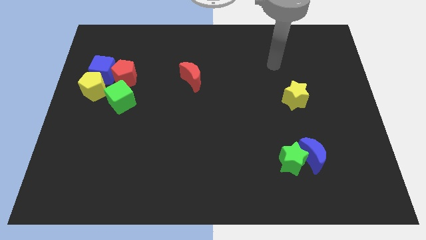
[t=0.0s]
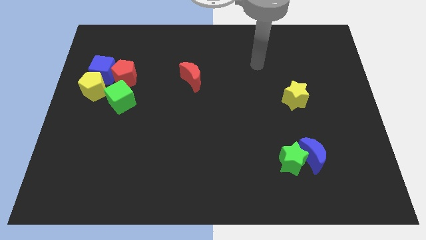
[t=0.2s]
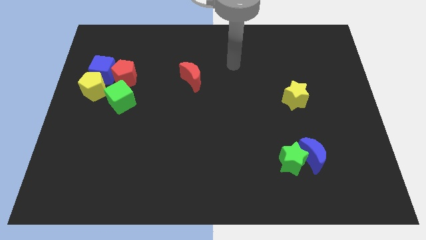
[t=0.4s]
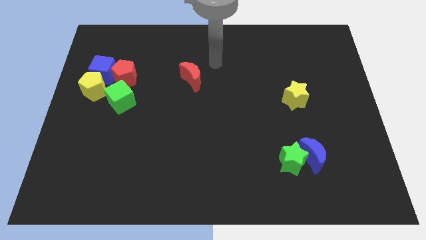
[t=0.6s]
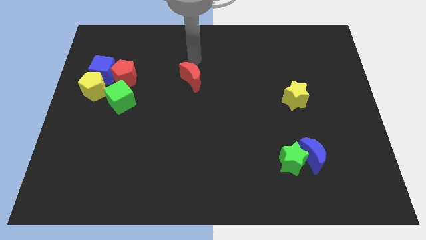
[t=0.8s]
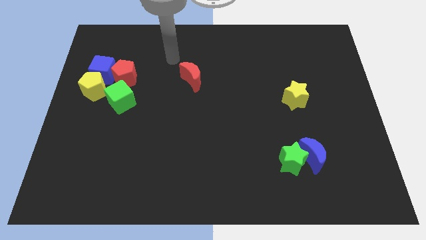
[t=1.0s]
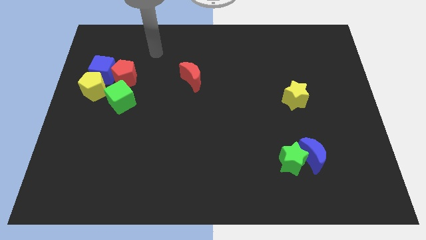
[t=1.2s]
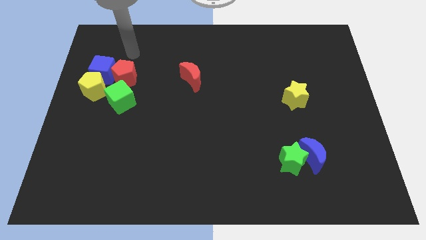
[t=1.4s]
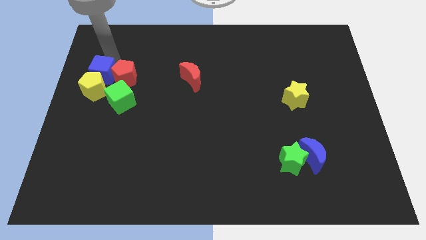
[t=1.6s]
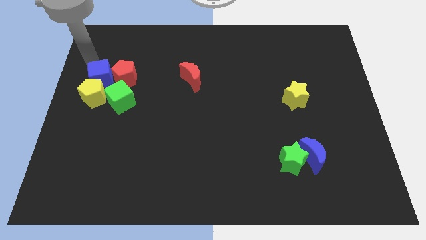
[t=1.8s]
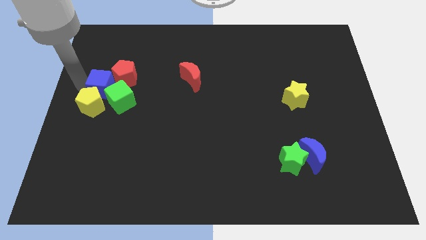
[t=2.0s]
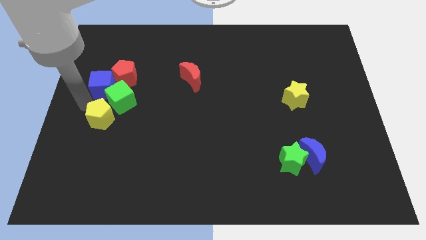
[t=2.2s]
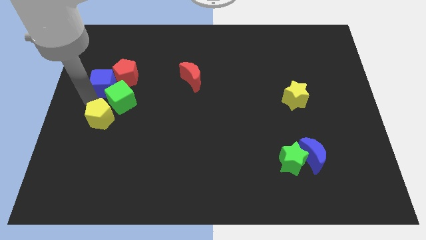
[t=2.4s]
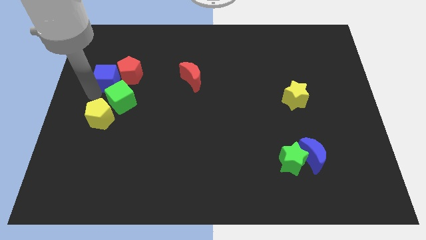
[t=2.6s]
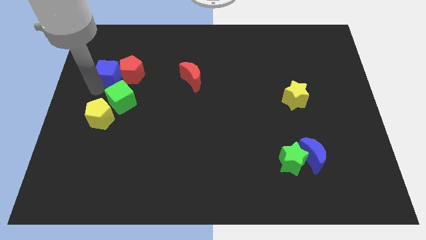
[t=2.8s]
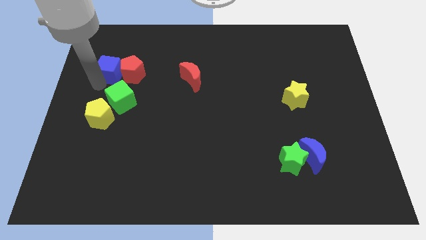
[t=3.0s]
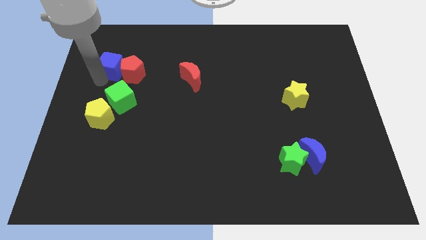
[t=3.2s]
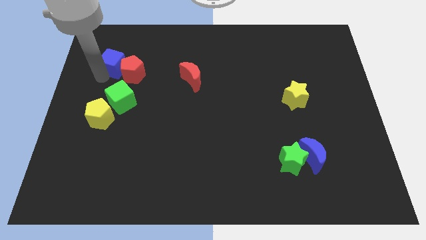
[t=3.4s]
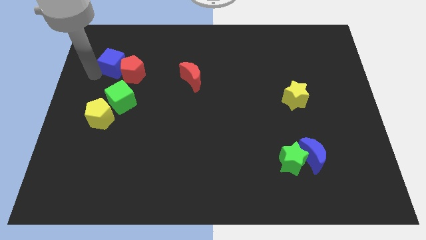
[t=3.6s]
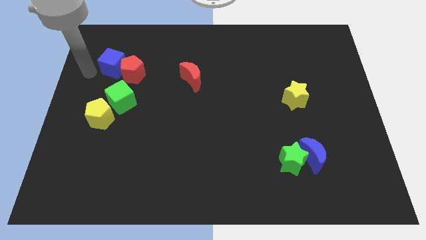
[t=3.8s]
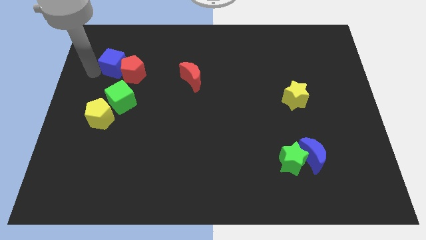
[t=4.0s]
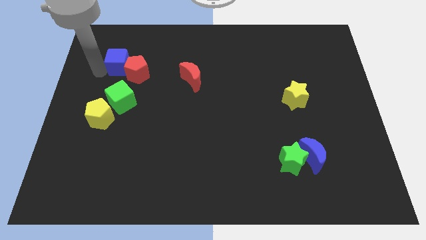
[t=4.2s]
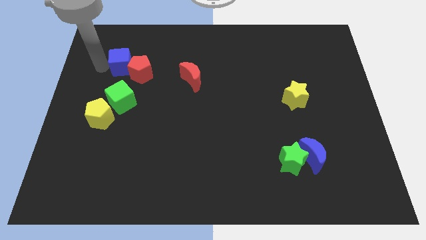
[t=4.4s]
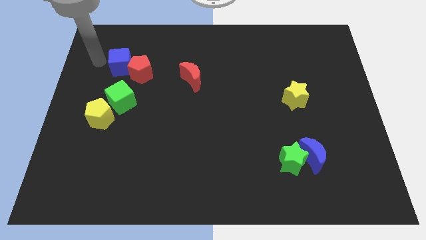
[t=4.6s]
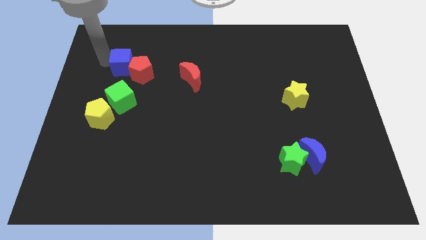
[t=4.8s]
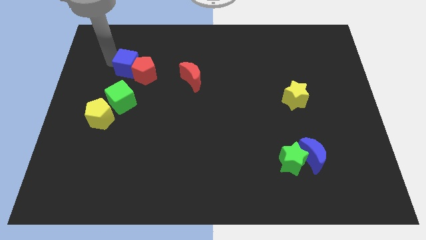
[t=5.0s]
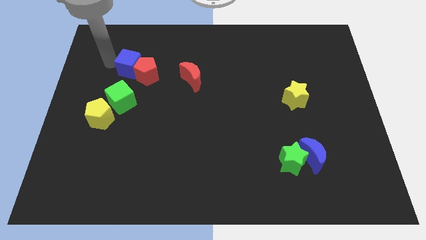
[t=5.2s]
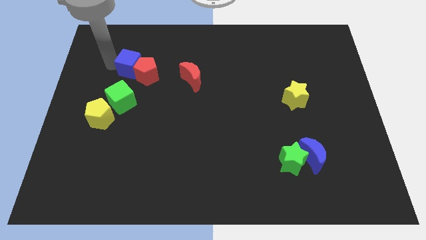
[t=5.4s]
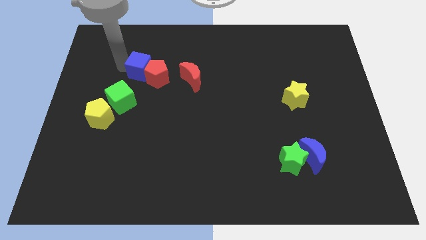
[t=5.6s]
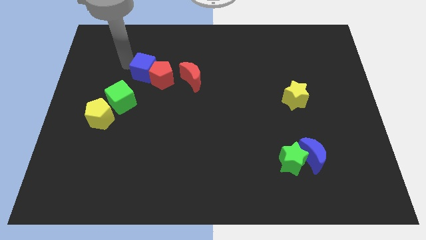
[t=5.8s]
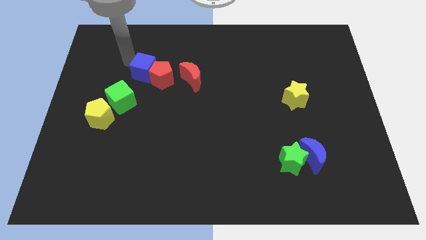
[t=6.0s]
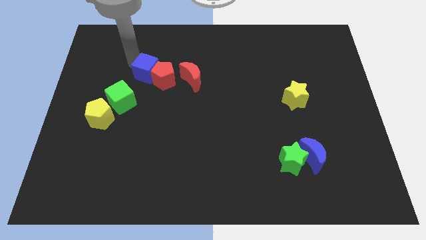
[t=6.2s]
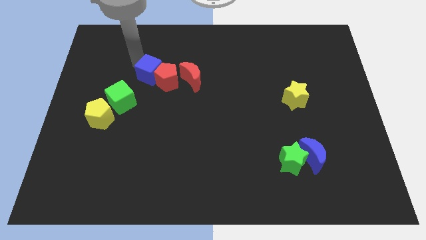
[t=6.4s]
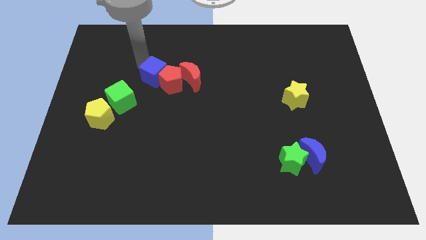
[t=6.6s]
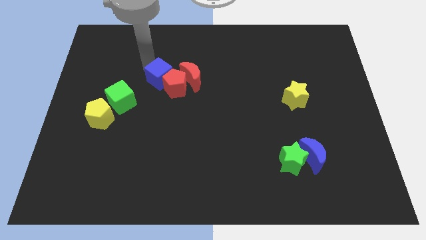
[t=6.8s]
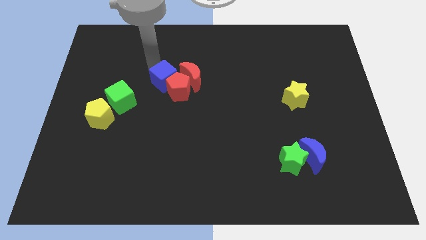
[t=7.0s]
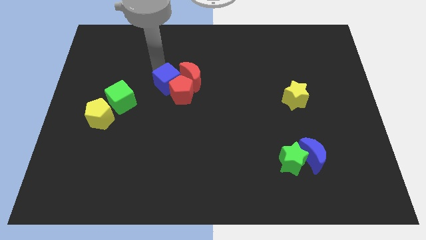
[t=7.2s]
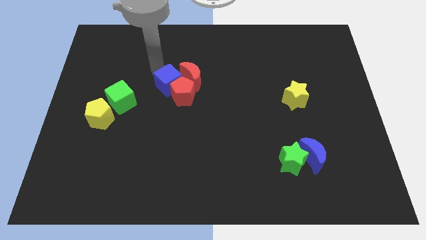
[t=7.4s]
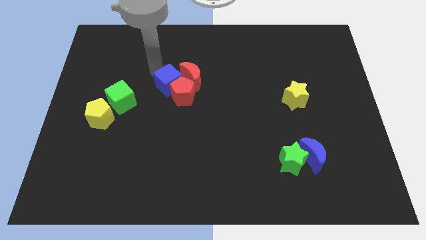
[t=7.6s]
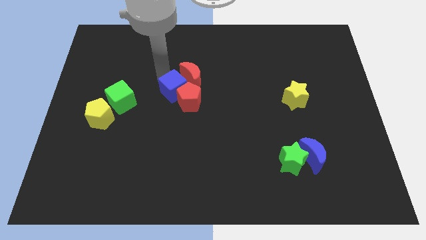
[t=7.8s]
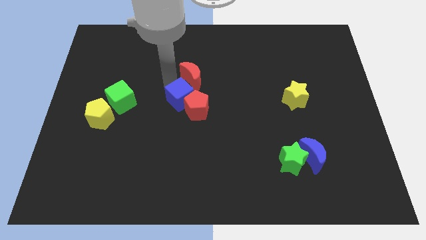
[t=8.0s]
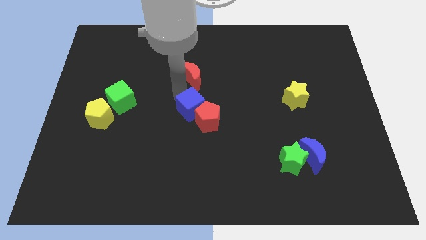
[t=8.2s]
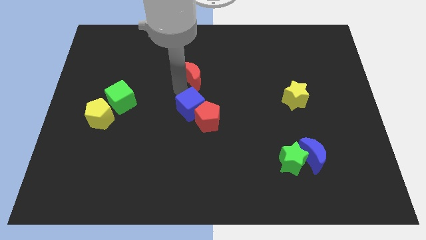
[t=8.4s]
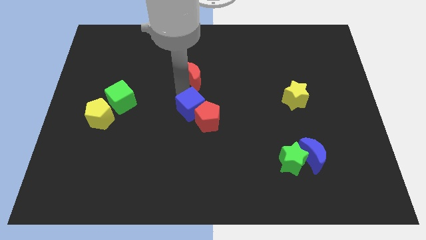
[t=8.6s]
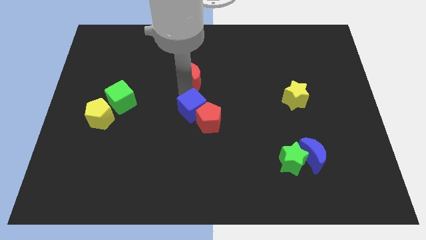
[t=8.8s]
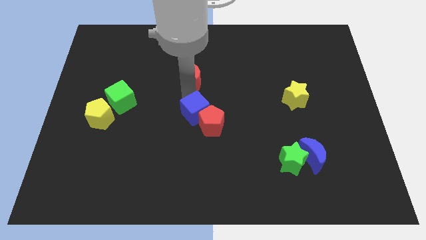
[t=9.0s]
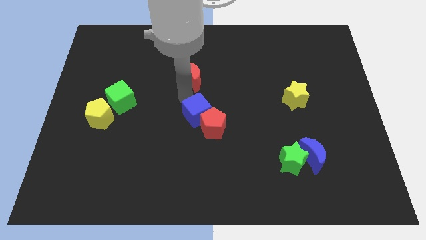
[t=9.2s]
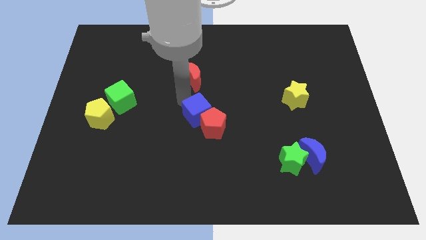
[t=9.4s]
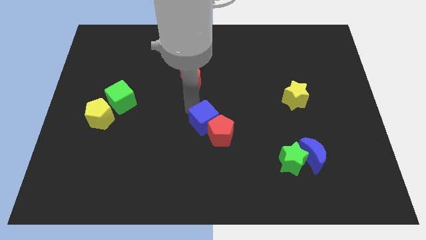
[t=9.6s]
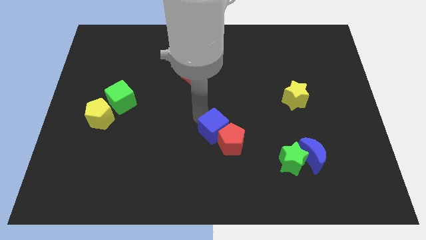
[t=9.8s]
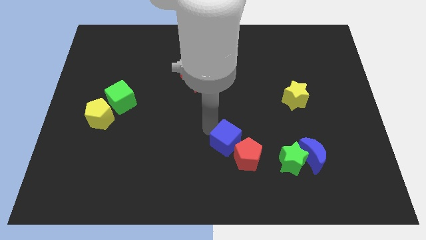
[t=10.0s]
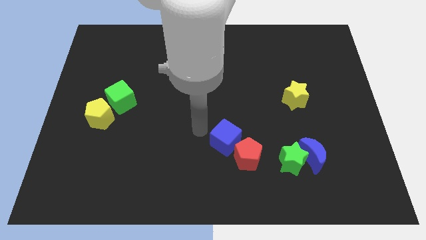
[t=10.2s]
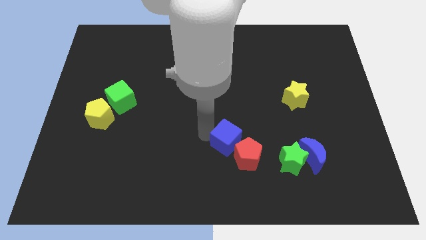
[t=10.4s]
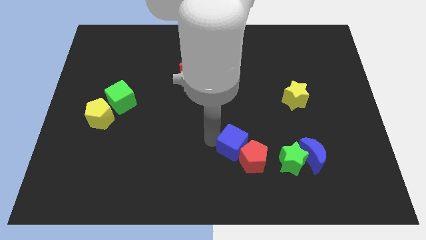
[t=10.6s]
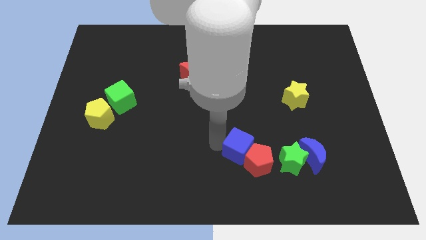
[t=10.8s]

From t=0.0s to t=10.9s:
push the blue cube left of the blue moon

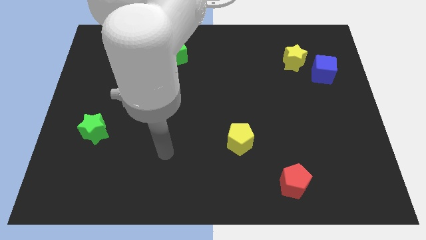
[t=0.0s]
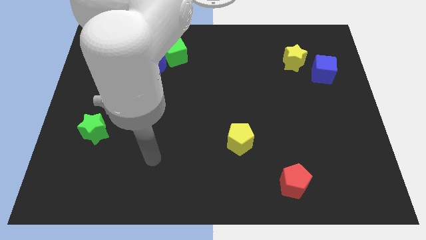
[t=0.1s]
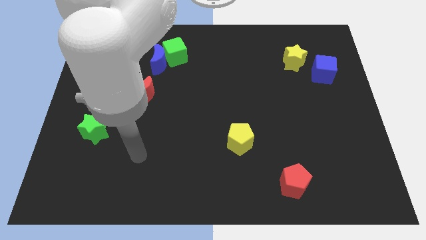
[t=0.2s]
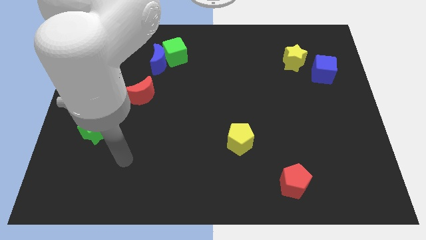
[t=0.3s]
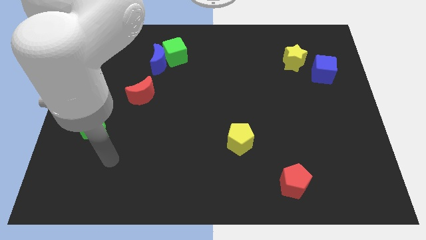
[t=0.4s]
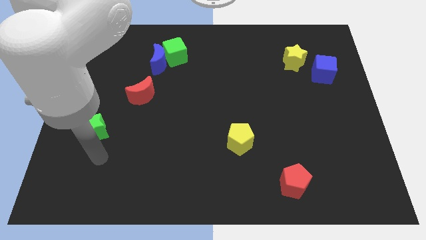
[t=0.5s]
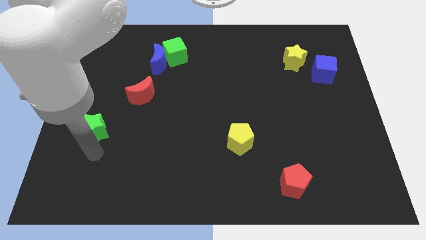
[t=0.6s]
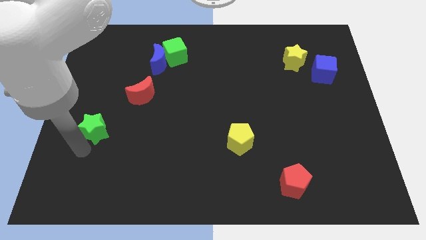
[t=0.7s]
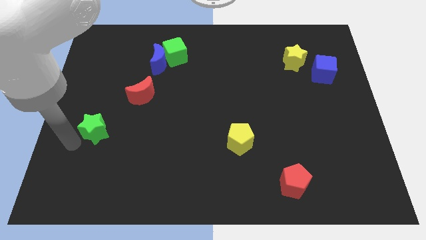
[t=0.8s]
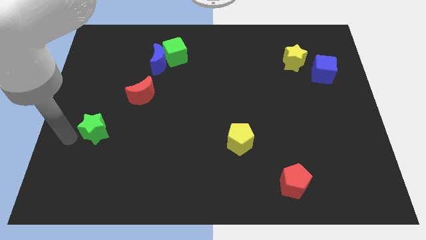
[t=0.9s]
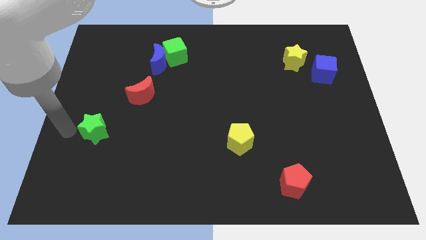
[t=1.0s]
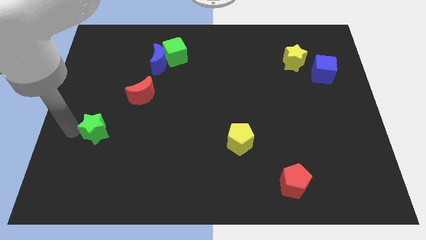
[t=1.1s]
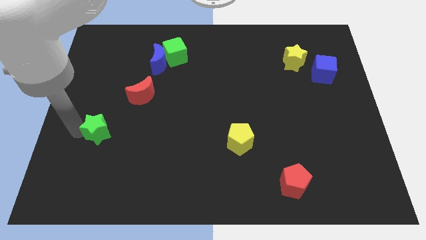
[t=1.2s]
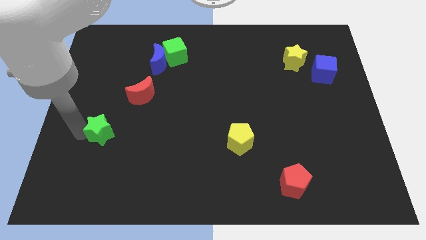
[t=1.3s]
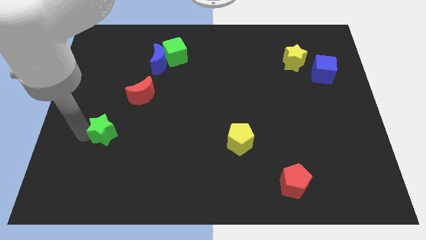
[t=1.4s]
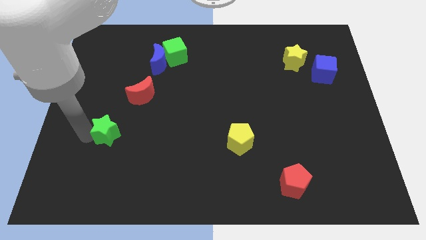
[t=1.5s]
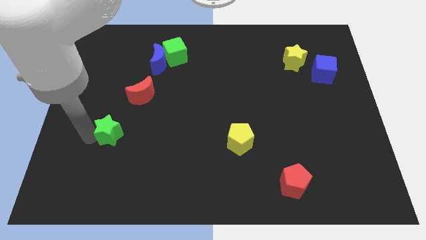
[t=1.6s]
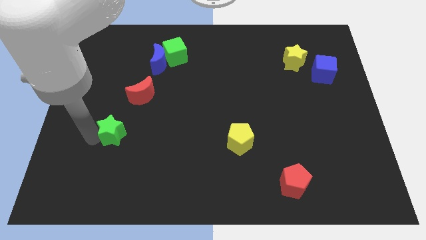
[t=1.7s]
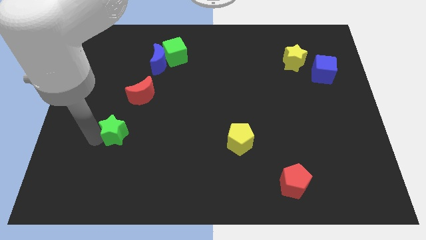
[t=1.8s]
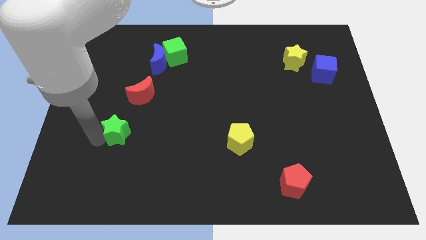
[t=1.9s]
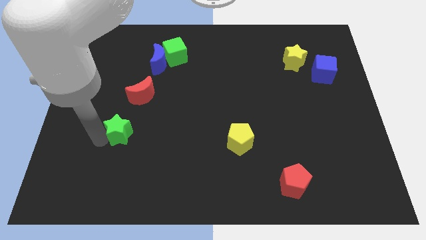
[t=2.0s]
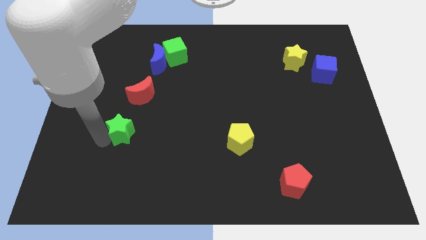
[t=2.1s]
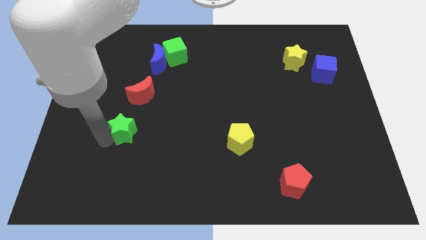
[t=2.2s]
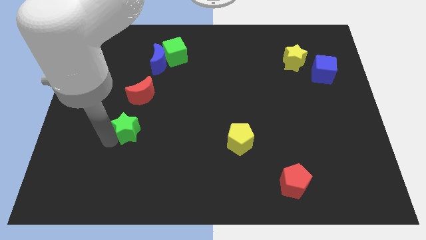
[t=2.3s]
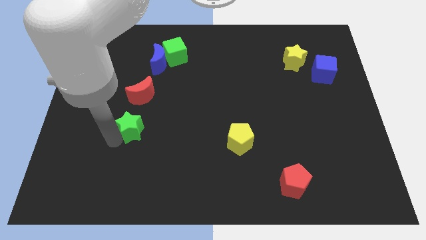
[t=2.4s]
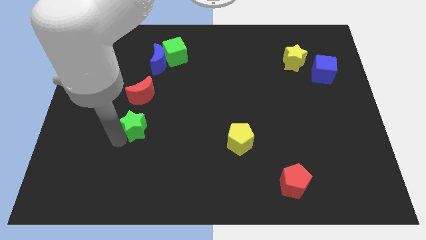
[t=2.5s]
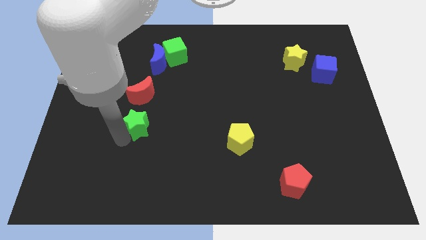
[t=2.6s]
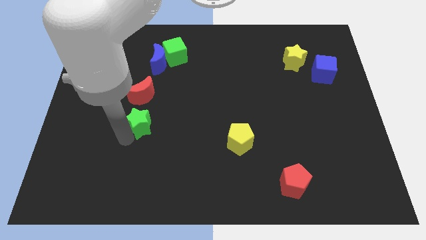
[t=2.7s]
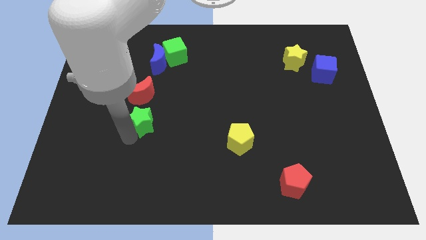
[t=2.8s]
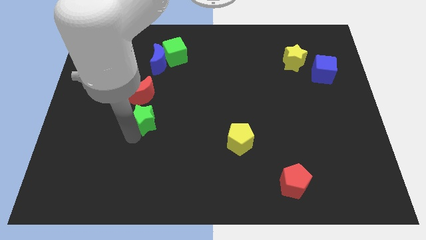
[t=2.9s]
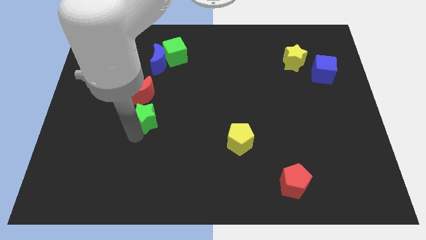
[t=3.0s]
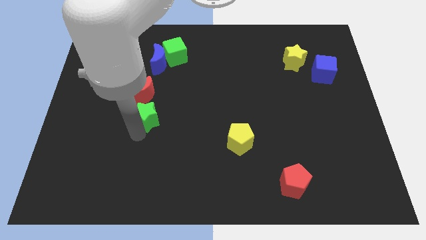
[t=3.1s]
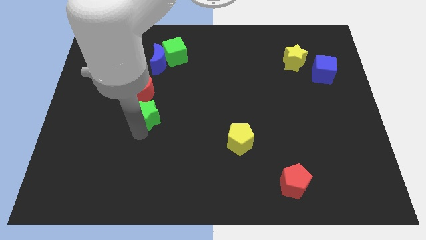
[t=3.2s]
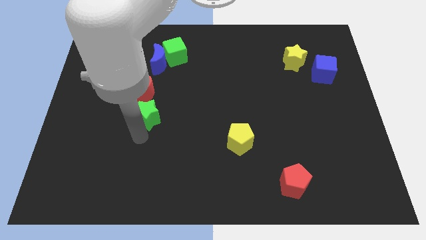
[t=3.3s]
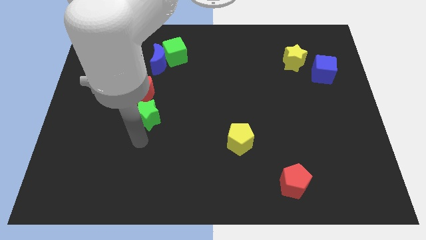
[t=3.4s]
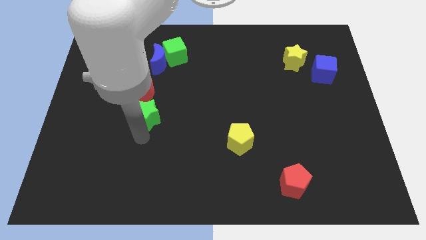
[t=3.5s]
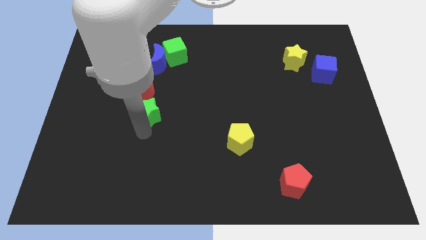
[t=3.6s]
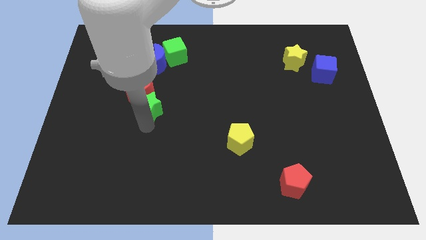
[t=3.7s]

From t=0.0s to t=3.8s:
slide the green star below the blue moon
